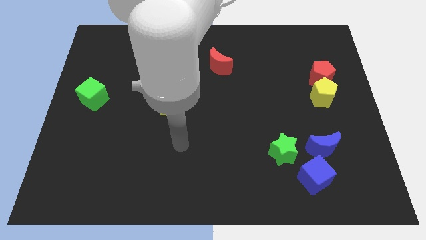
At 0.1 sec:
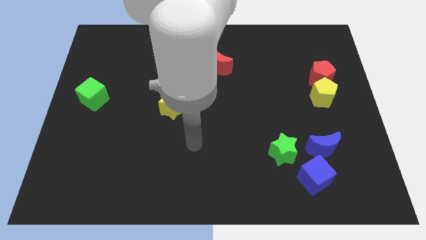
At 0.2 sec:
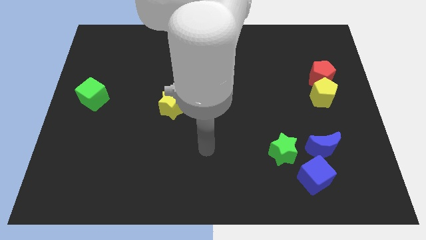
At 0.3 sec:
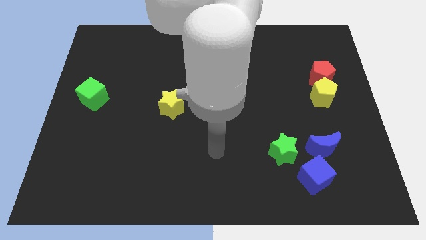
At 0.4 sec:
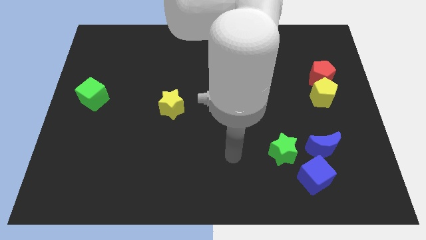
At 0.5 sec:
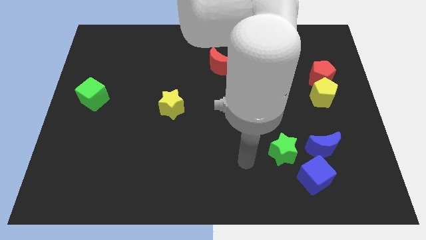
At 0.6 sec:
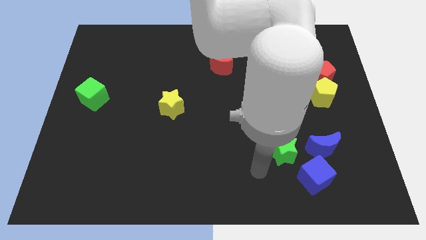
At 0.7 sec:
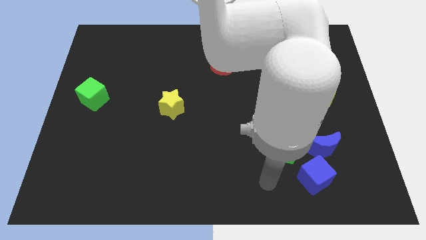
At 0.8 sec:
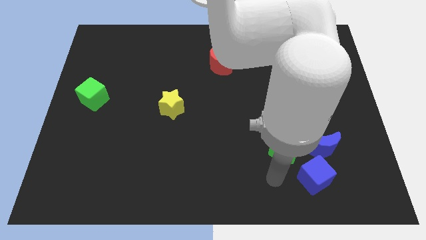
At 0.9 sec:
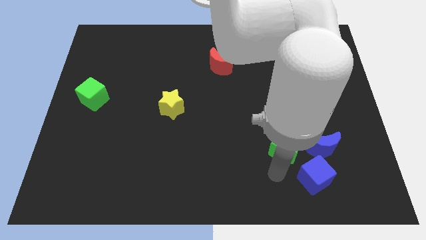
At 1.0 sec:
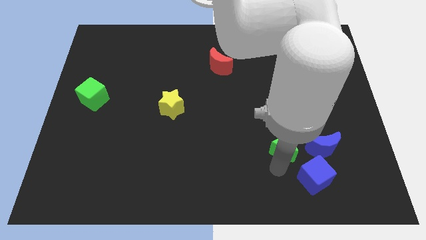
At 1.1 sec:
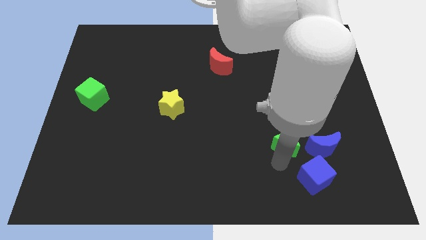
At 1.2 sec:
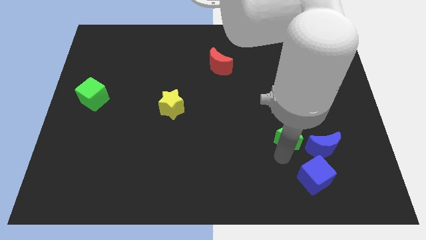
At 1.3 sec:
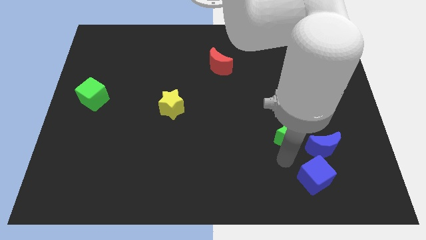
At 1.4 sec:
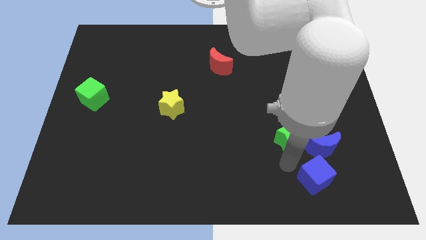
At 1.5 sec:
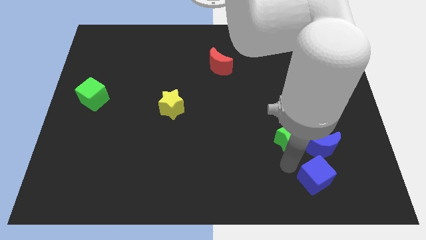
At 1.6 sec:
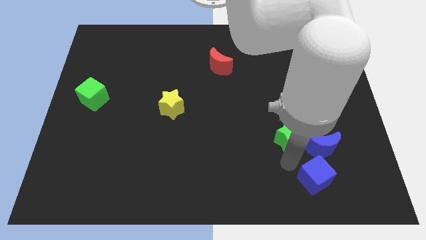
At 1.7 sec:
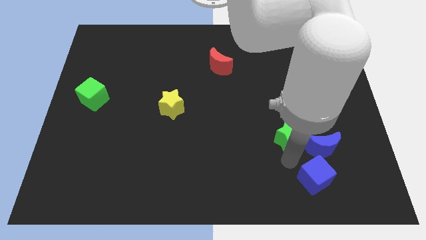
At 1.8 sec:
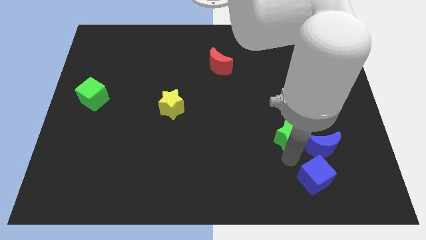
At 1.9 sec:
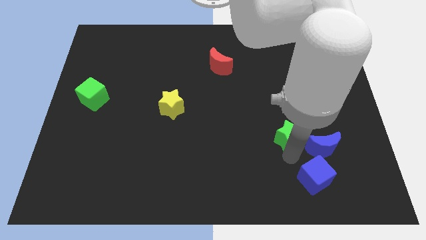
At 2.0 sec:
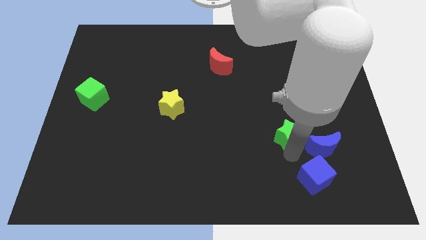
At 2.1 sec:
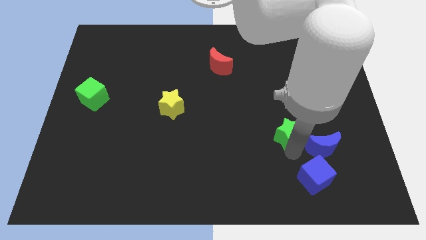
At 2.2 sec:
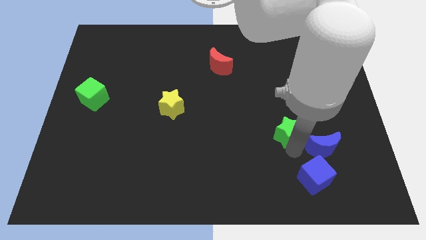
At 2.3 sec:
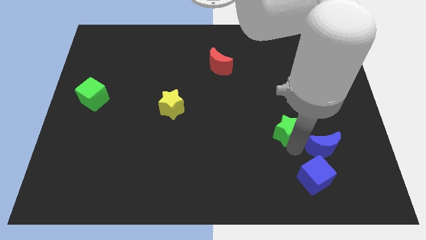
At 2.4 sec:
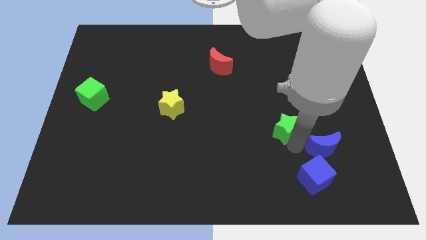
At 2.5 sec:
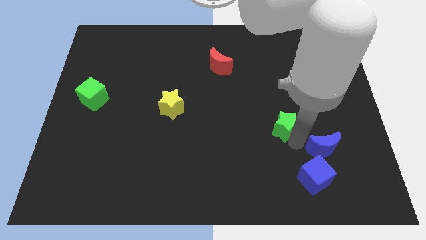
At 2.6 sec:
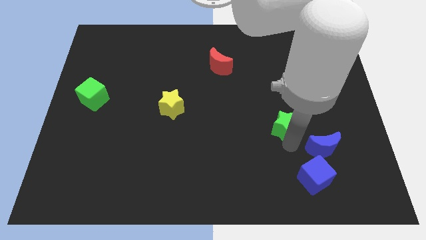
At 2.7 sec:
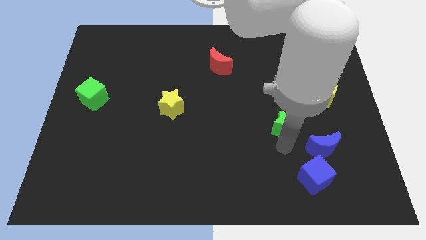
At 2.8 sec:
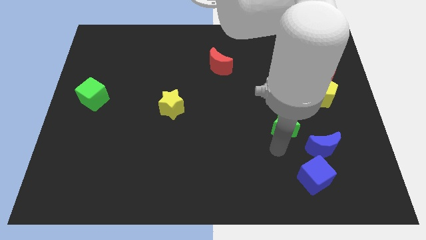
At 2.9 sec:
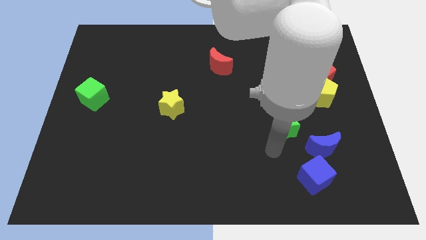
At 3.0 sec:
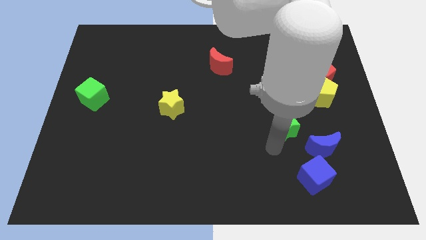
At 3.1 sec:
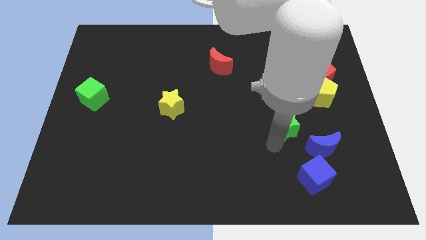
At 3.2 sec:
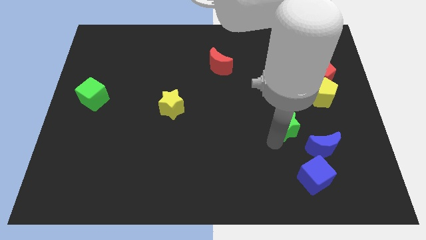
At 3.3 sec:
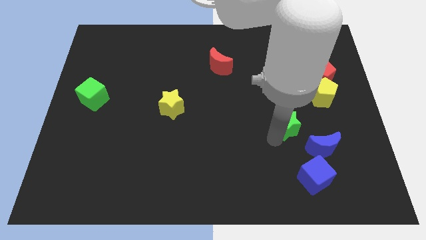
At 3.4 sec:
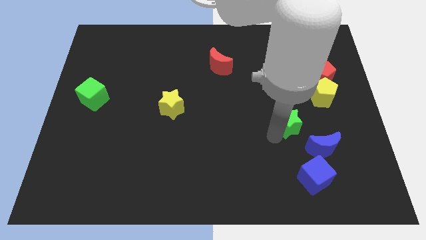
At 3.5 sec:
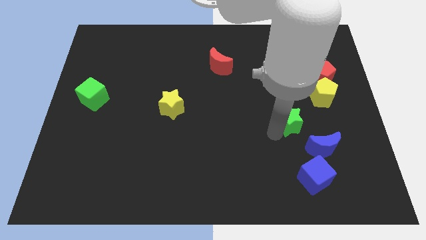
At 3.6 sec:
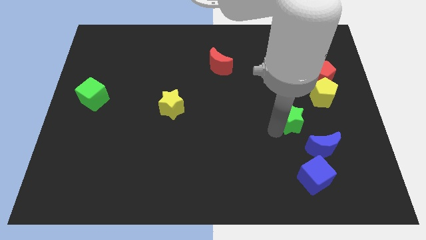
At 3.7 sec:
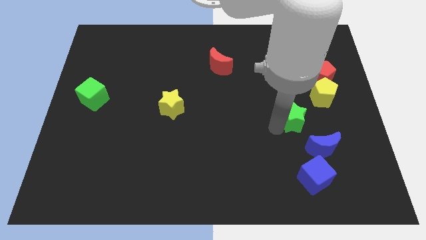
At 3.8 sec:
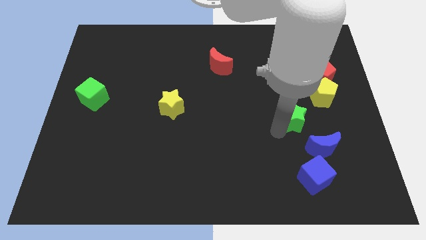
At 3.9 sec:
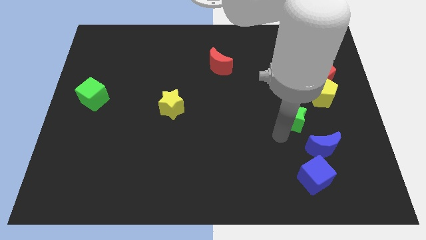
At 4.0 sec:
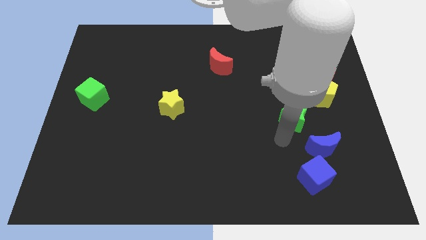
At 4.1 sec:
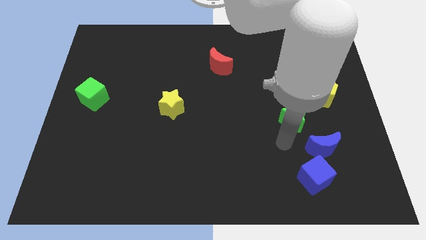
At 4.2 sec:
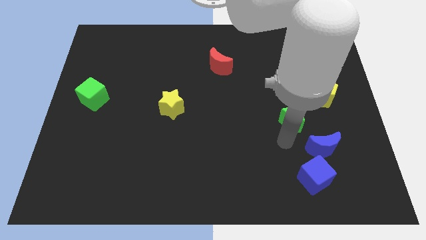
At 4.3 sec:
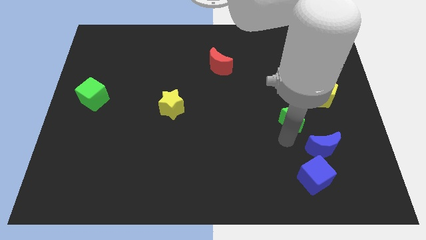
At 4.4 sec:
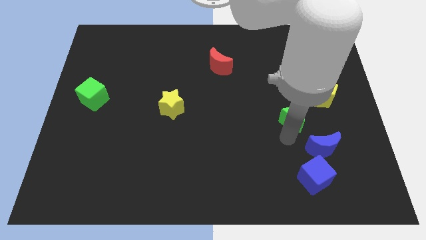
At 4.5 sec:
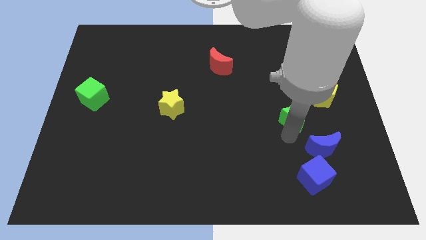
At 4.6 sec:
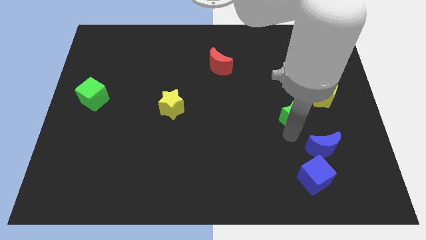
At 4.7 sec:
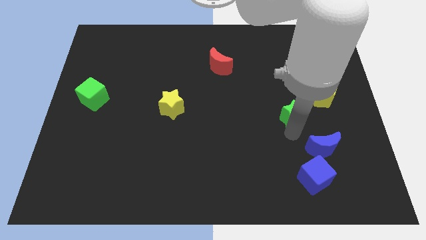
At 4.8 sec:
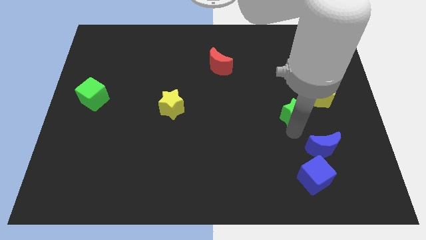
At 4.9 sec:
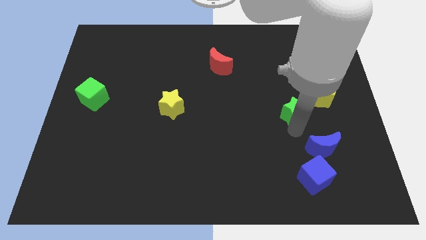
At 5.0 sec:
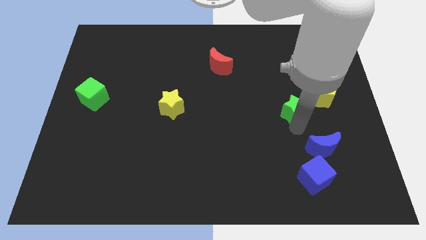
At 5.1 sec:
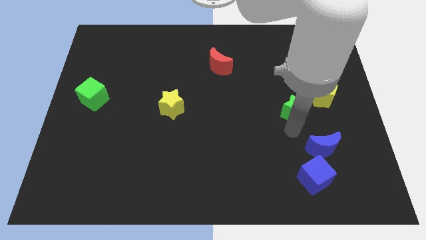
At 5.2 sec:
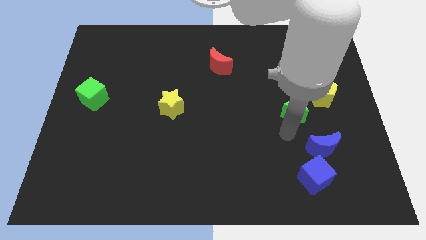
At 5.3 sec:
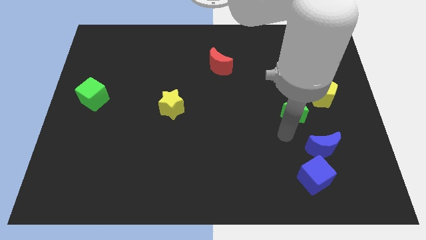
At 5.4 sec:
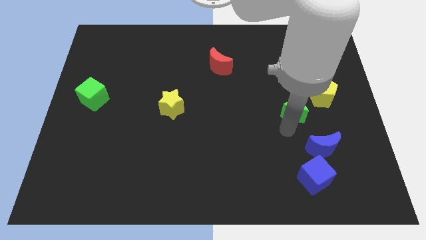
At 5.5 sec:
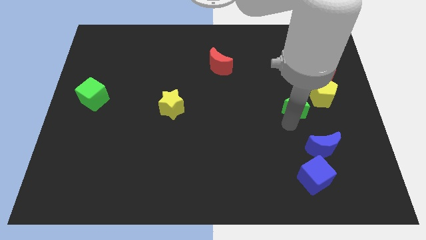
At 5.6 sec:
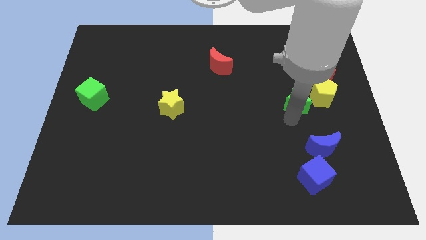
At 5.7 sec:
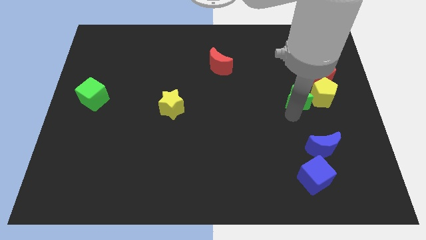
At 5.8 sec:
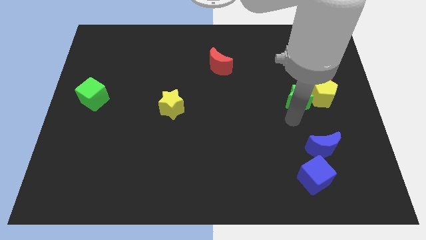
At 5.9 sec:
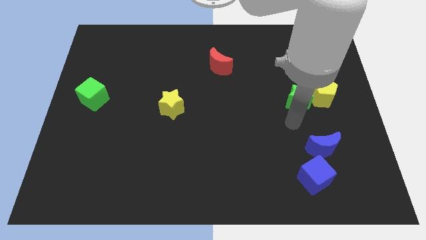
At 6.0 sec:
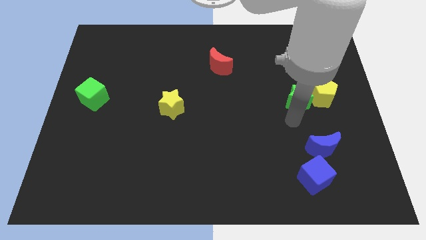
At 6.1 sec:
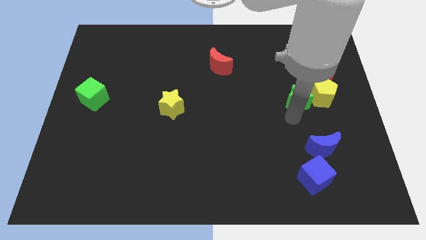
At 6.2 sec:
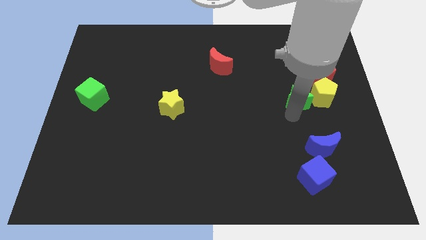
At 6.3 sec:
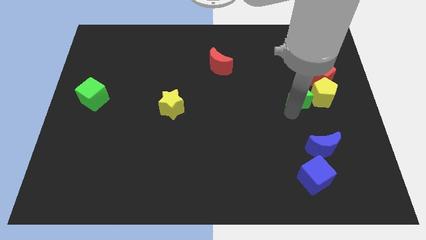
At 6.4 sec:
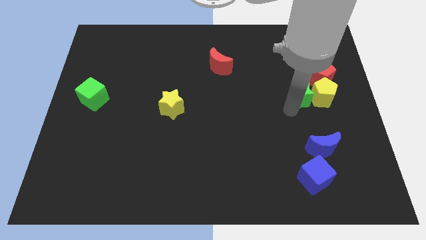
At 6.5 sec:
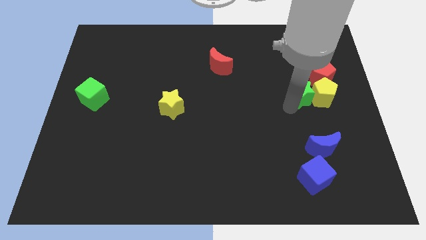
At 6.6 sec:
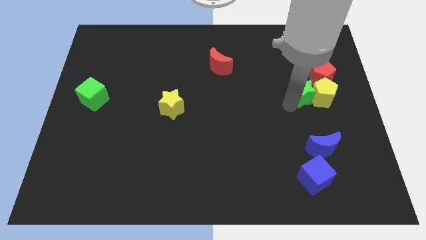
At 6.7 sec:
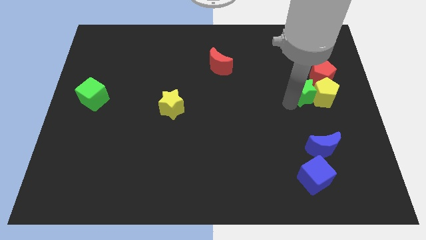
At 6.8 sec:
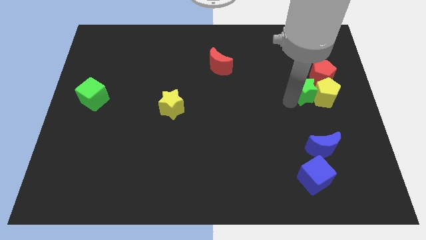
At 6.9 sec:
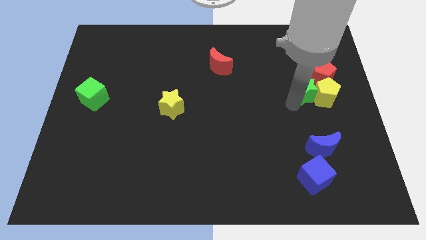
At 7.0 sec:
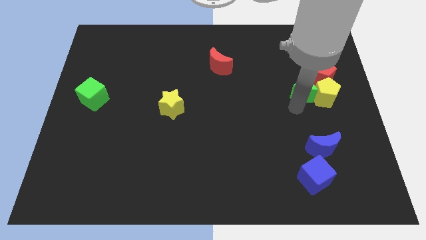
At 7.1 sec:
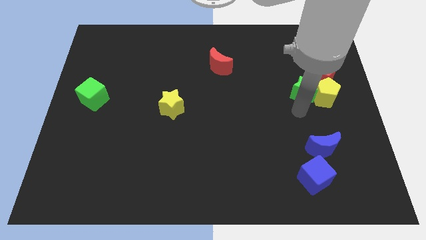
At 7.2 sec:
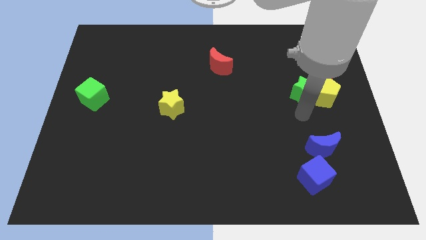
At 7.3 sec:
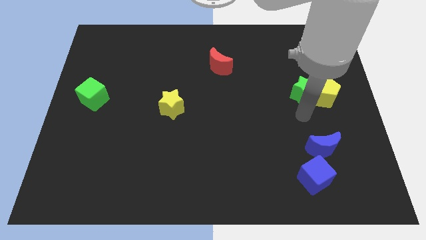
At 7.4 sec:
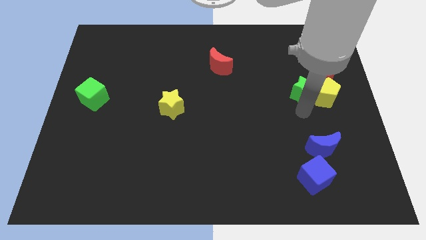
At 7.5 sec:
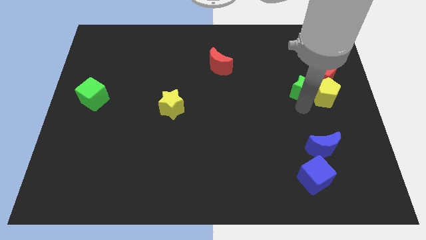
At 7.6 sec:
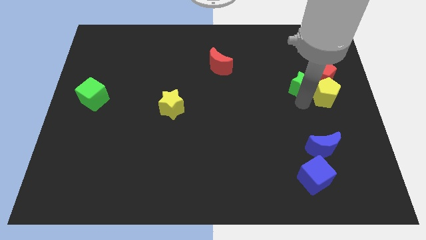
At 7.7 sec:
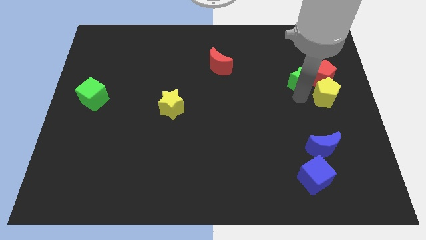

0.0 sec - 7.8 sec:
push the green star to the red pentagon
